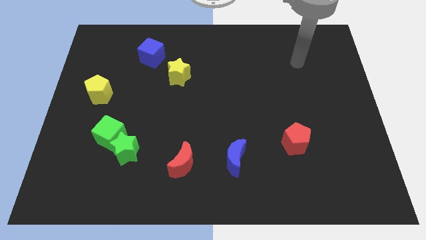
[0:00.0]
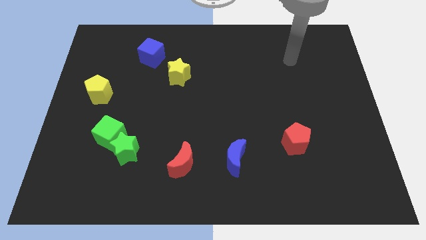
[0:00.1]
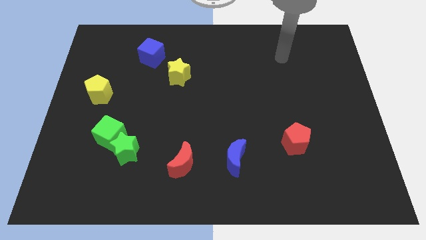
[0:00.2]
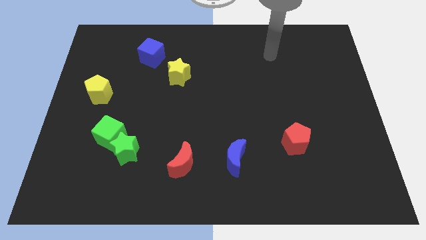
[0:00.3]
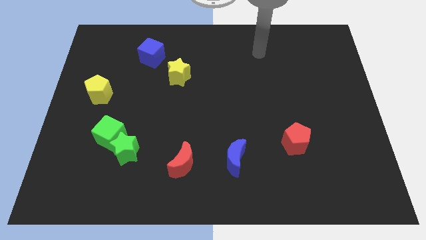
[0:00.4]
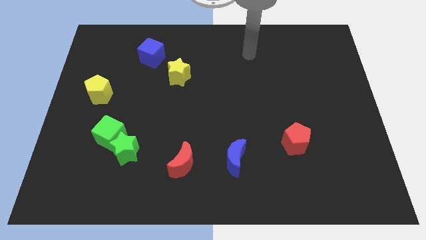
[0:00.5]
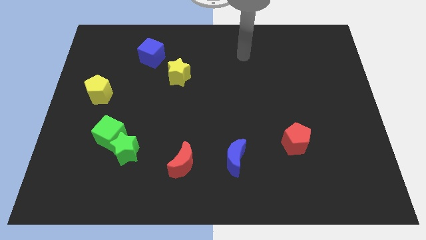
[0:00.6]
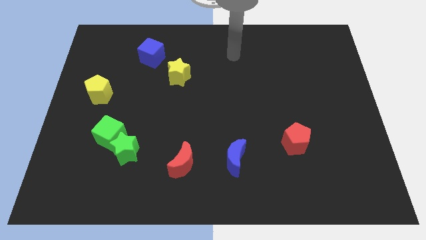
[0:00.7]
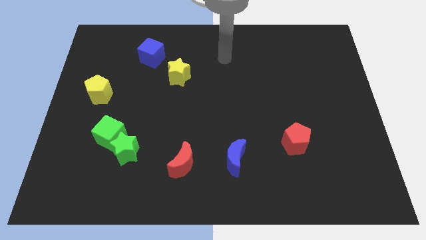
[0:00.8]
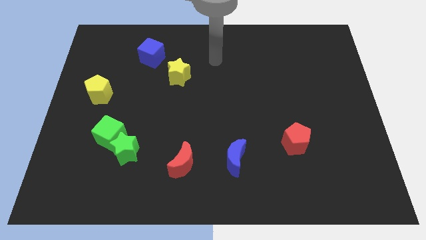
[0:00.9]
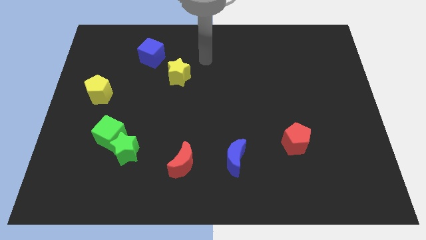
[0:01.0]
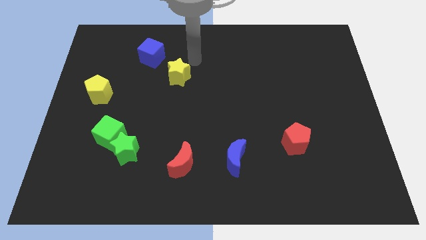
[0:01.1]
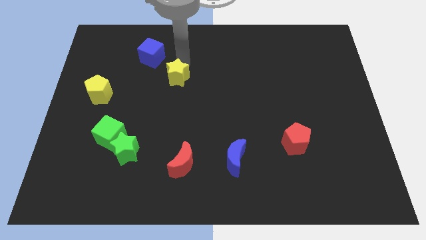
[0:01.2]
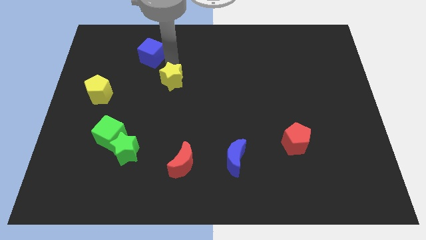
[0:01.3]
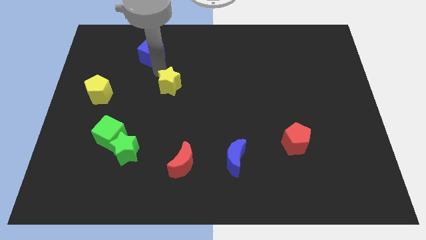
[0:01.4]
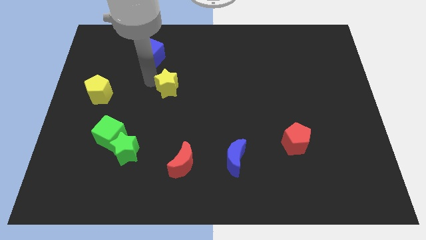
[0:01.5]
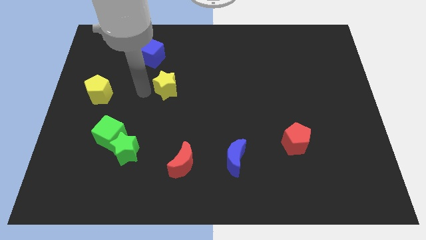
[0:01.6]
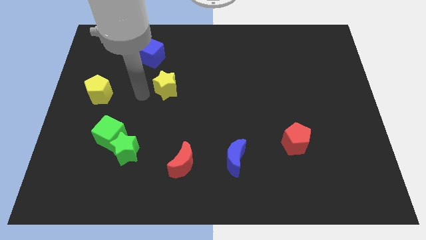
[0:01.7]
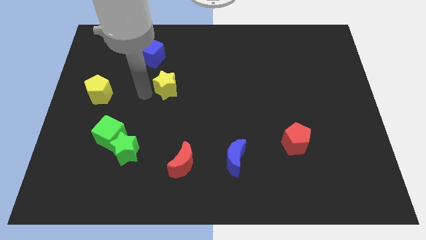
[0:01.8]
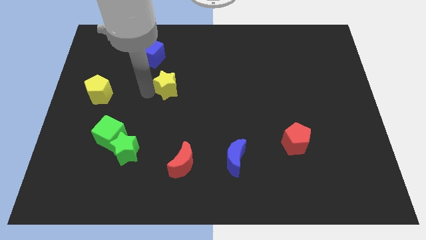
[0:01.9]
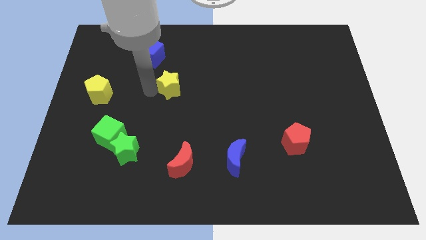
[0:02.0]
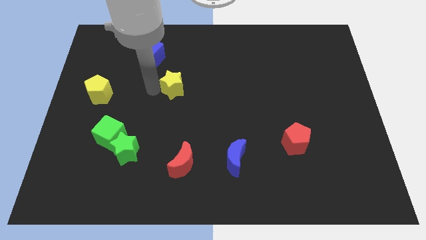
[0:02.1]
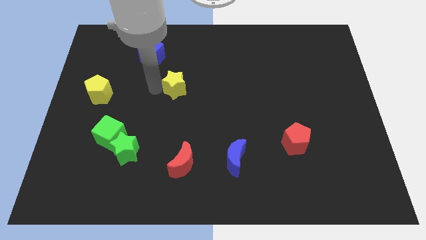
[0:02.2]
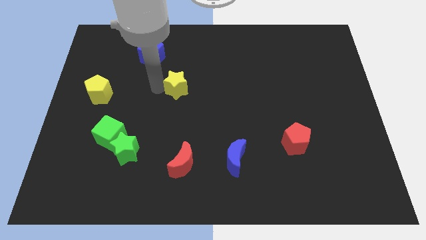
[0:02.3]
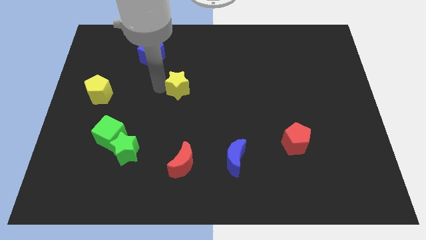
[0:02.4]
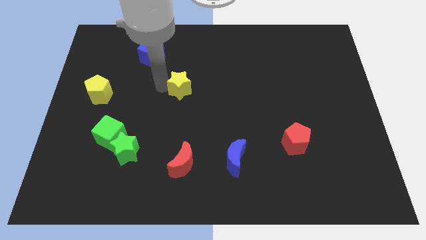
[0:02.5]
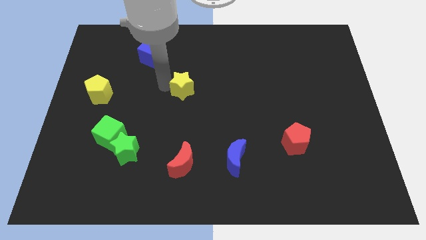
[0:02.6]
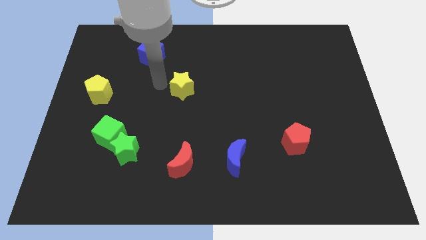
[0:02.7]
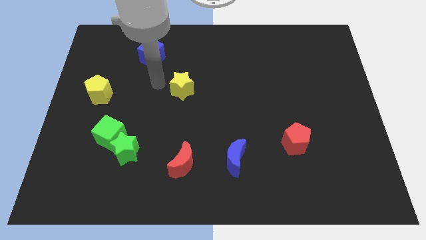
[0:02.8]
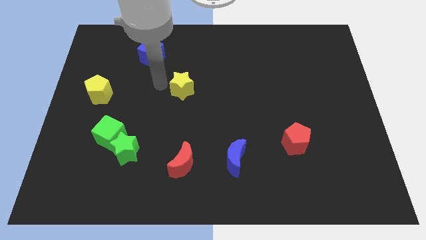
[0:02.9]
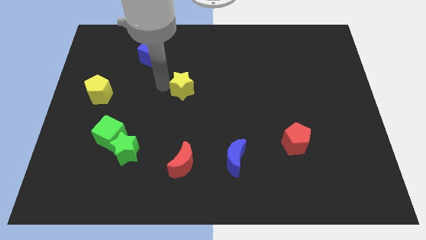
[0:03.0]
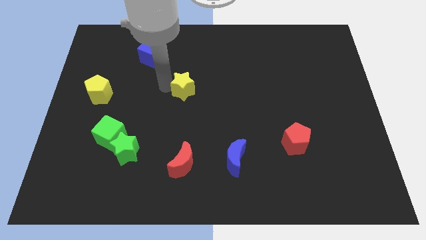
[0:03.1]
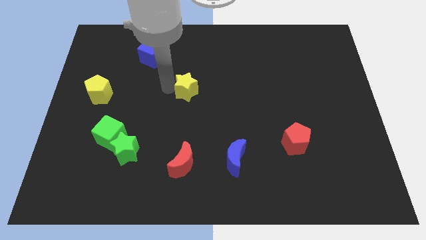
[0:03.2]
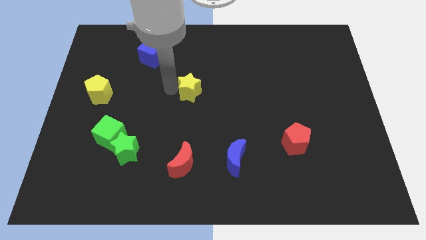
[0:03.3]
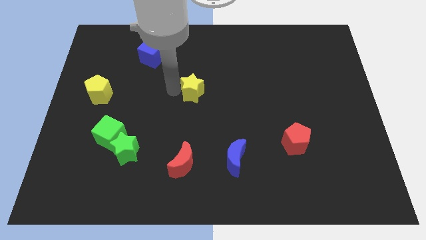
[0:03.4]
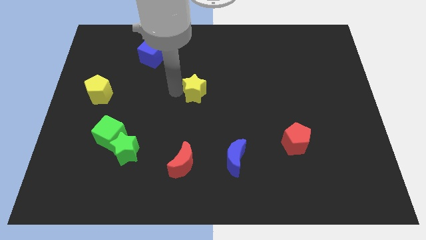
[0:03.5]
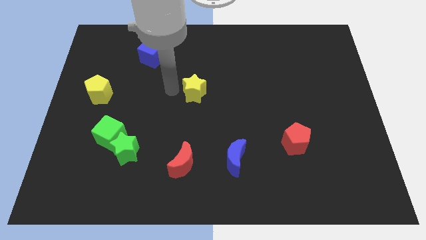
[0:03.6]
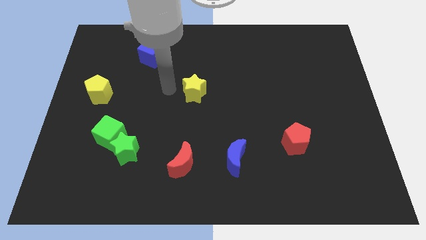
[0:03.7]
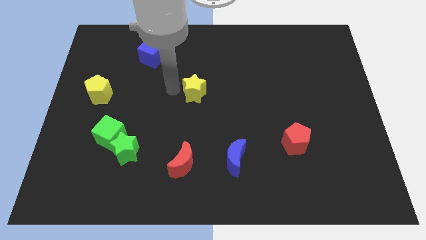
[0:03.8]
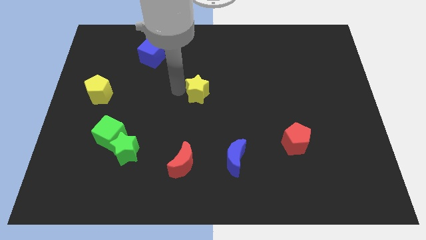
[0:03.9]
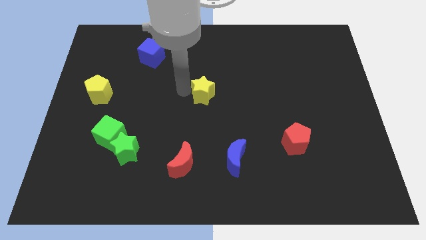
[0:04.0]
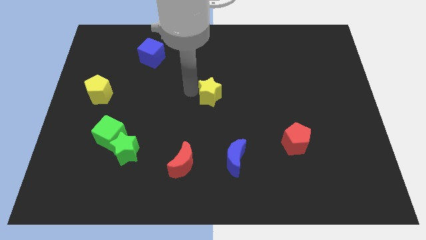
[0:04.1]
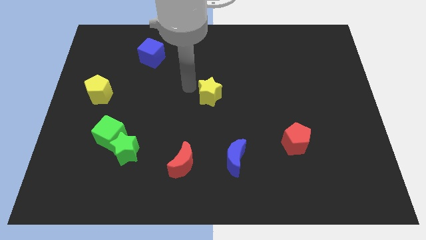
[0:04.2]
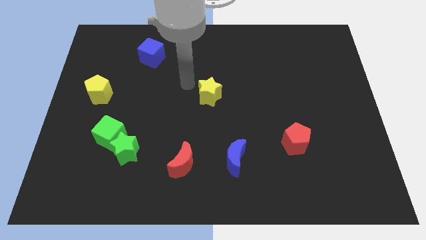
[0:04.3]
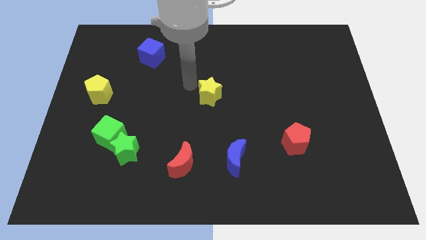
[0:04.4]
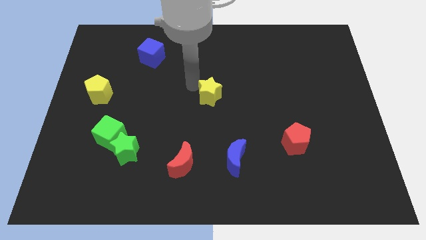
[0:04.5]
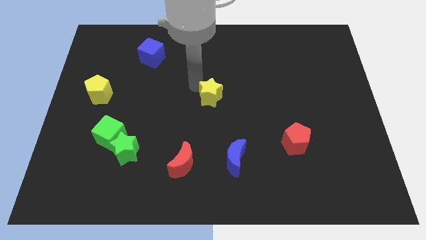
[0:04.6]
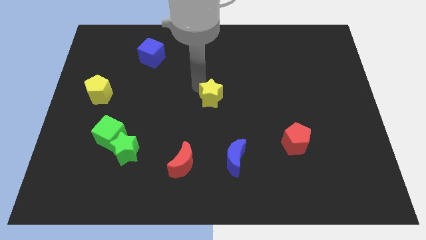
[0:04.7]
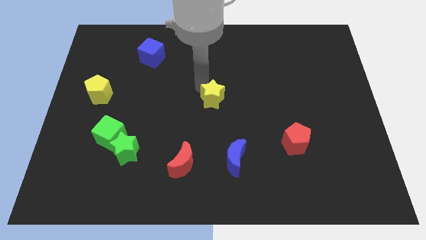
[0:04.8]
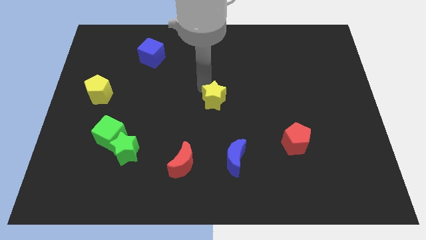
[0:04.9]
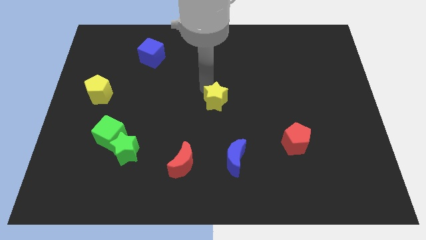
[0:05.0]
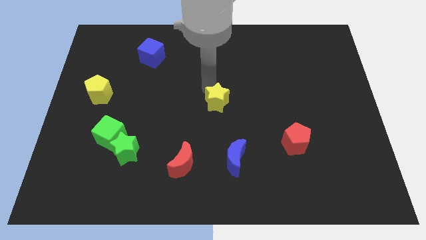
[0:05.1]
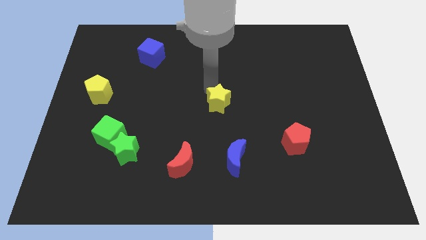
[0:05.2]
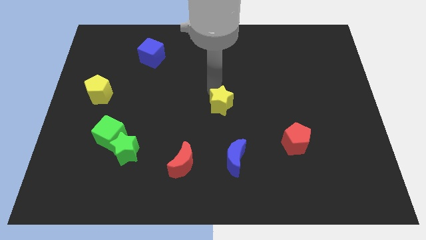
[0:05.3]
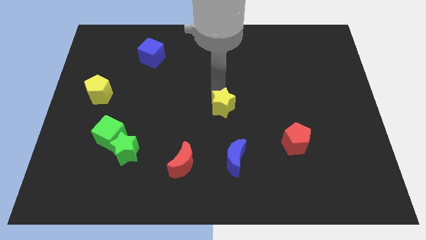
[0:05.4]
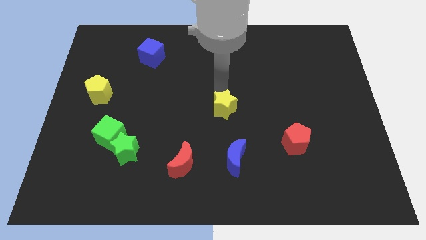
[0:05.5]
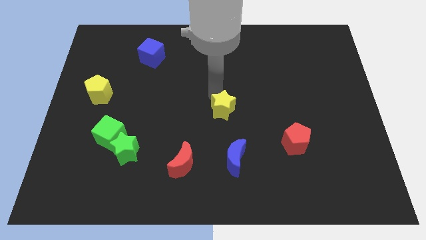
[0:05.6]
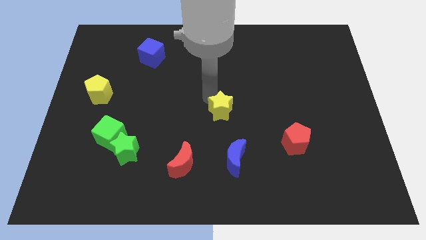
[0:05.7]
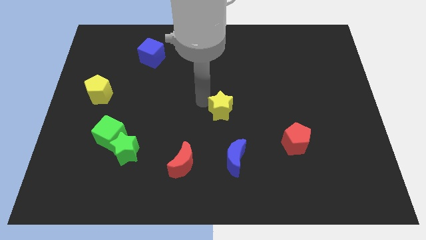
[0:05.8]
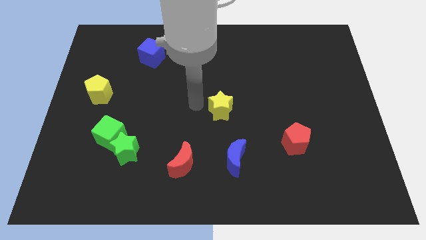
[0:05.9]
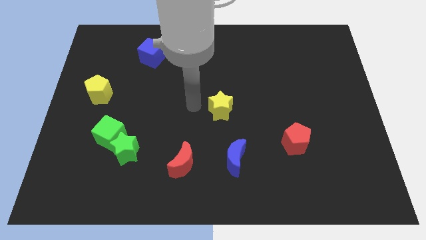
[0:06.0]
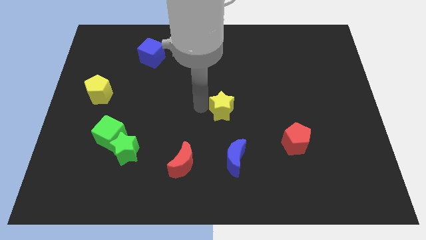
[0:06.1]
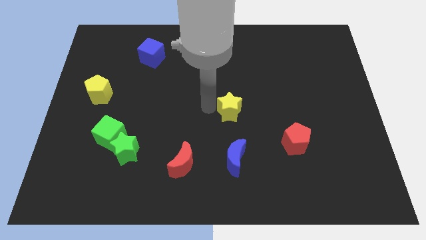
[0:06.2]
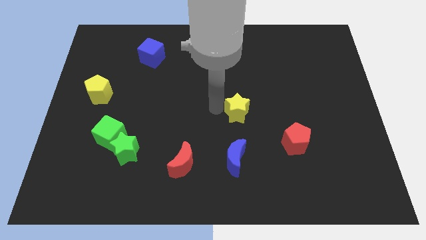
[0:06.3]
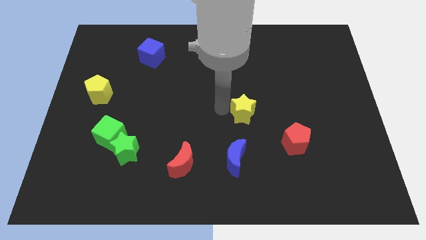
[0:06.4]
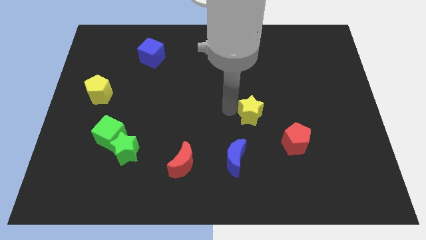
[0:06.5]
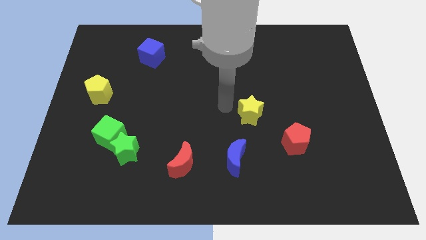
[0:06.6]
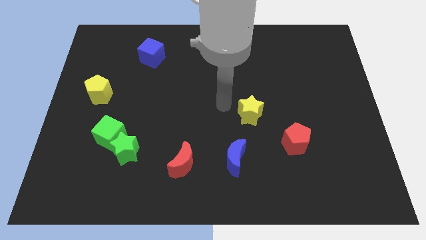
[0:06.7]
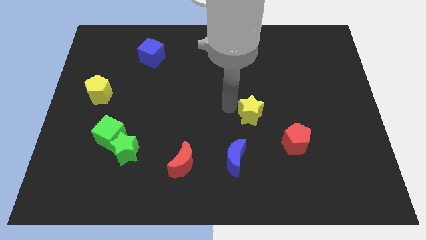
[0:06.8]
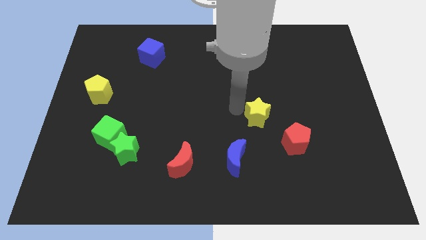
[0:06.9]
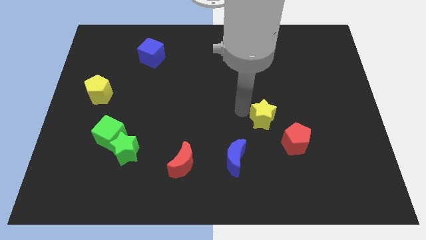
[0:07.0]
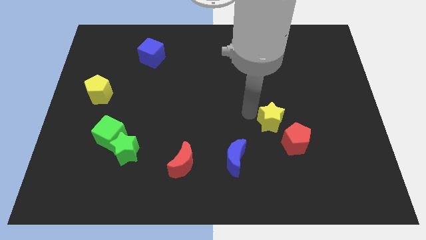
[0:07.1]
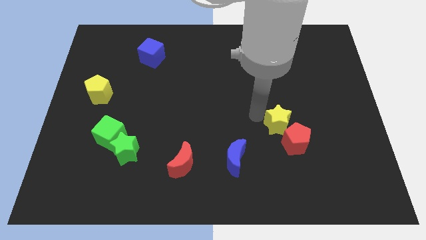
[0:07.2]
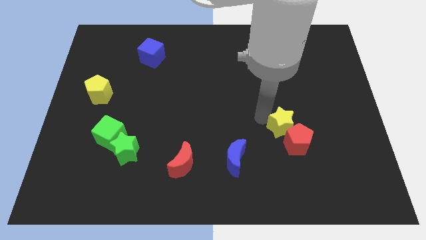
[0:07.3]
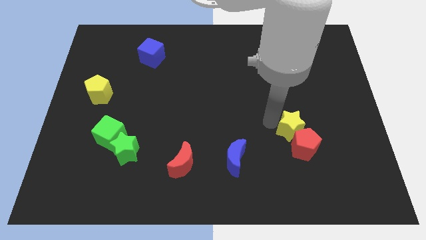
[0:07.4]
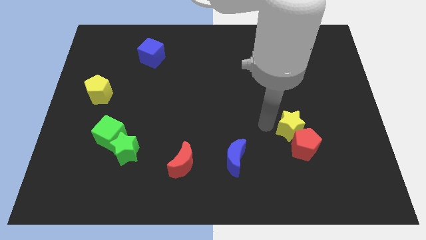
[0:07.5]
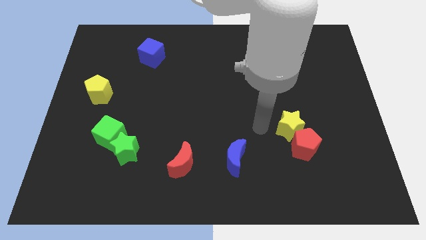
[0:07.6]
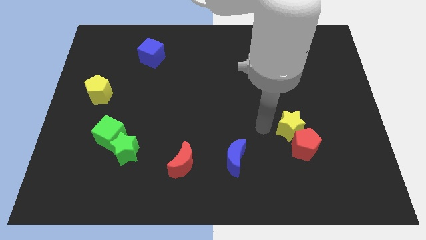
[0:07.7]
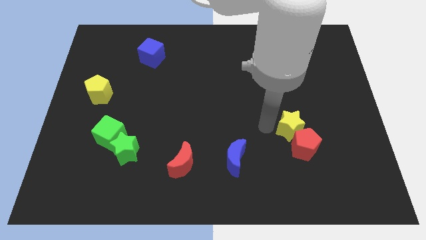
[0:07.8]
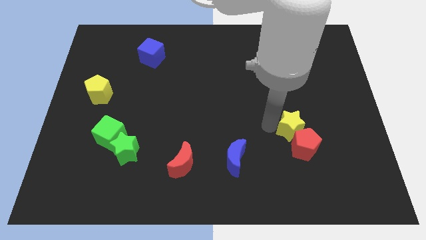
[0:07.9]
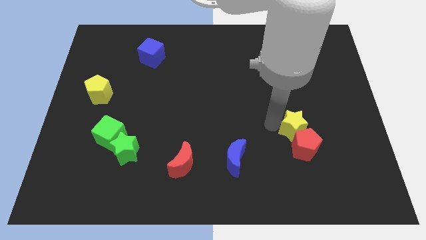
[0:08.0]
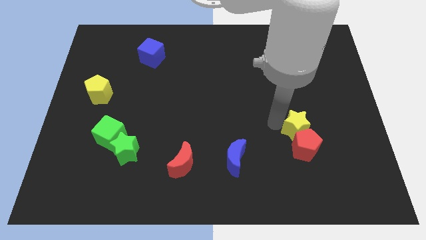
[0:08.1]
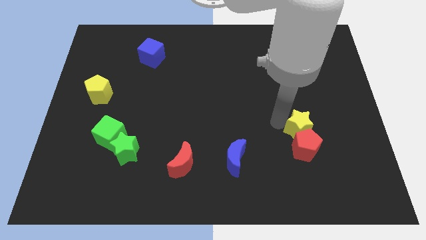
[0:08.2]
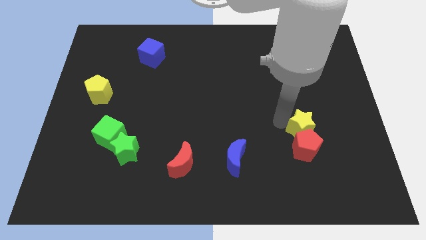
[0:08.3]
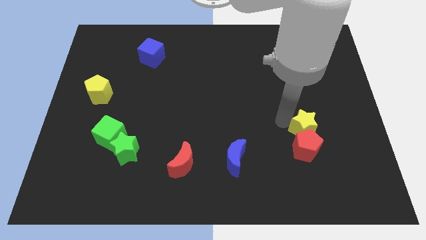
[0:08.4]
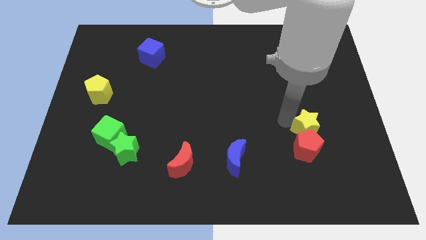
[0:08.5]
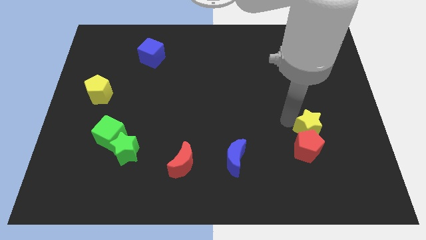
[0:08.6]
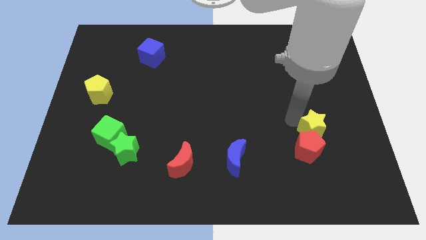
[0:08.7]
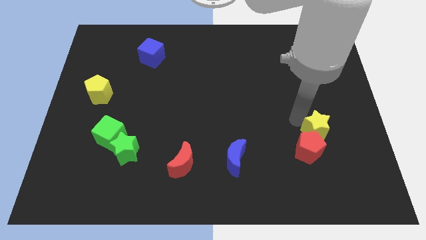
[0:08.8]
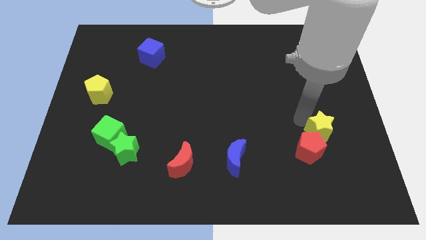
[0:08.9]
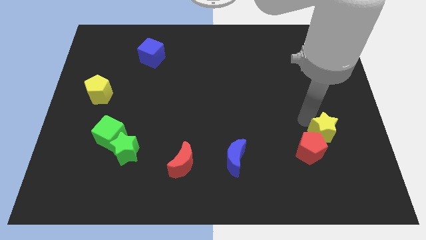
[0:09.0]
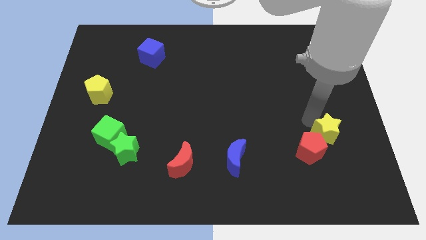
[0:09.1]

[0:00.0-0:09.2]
move the yellow star to the right side of the red pentagon
